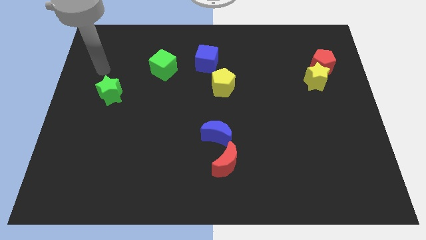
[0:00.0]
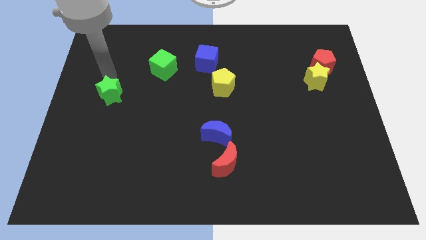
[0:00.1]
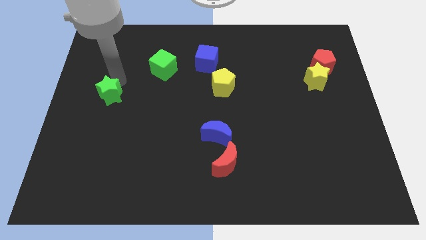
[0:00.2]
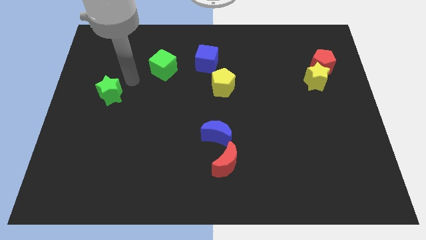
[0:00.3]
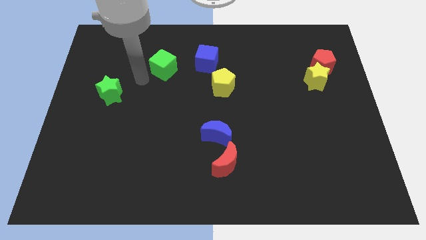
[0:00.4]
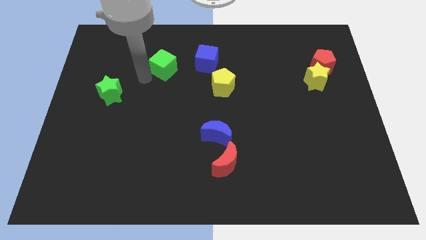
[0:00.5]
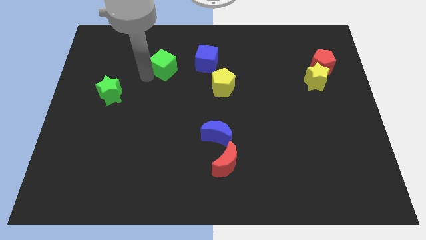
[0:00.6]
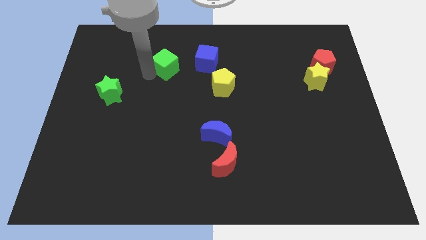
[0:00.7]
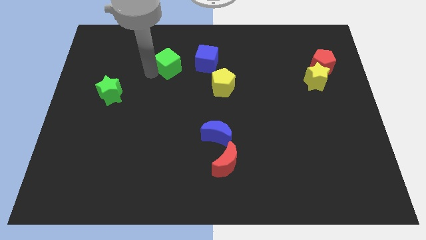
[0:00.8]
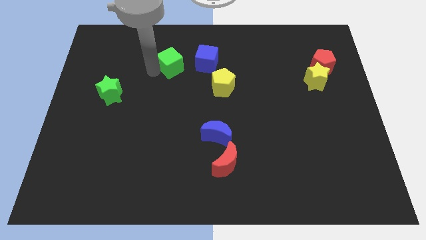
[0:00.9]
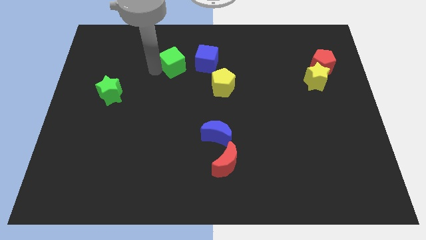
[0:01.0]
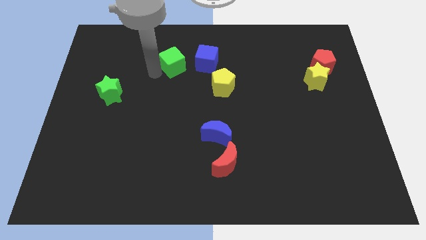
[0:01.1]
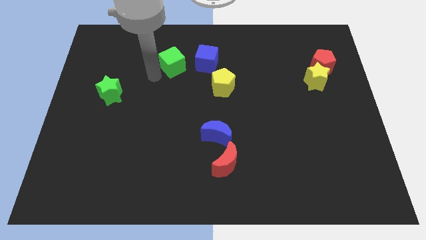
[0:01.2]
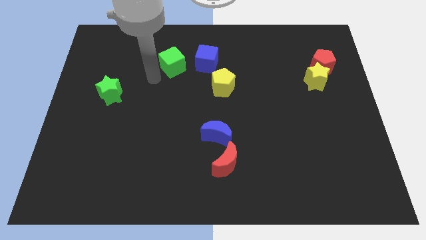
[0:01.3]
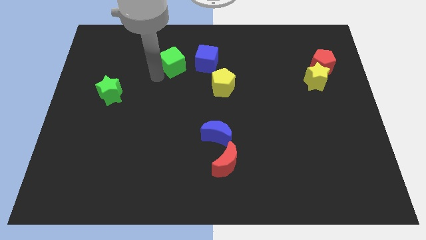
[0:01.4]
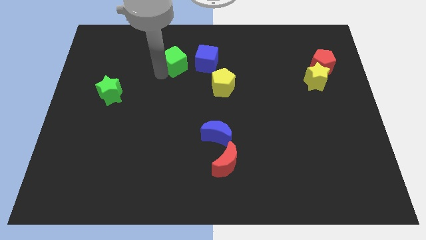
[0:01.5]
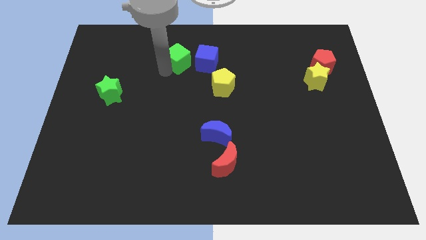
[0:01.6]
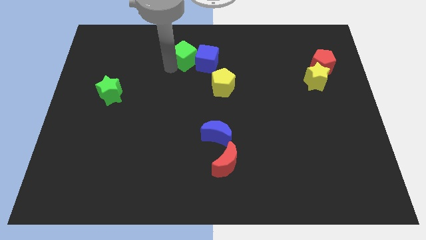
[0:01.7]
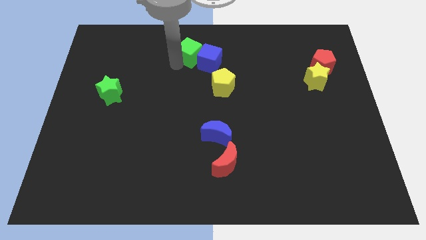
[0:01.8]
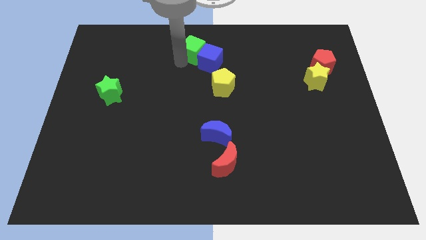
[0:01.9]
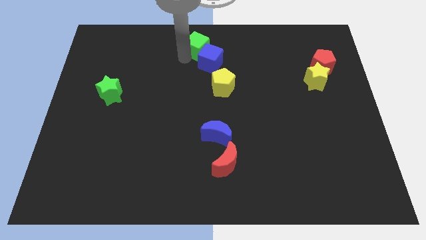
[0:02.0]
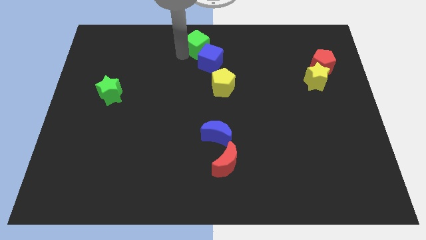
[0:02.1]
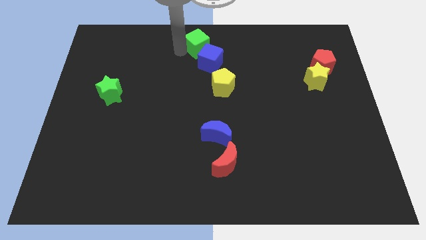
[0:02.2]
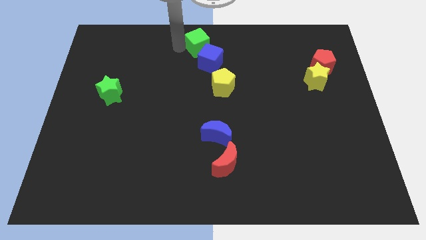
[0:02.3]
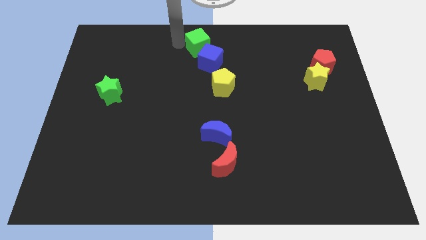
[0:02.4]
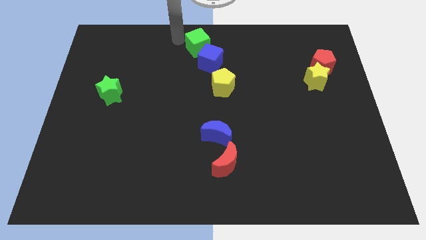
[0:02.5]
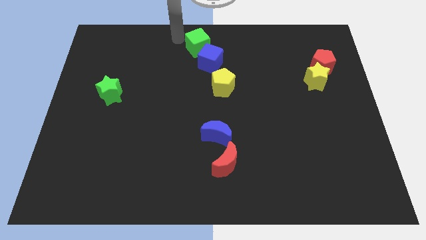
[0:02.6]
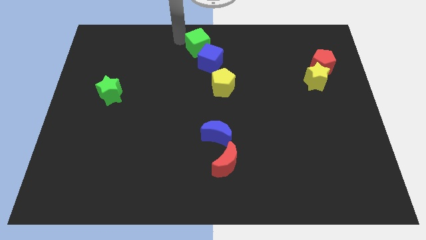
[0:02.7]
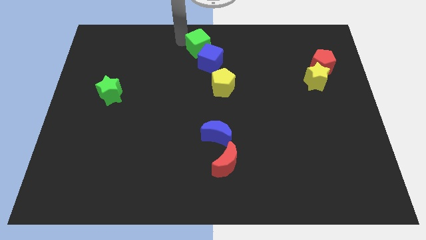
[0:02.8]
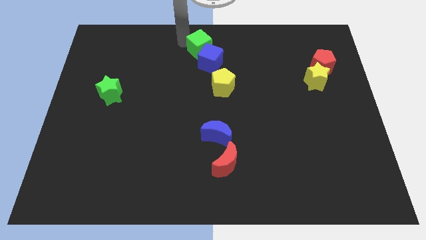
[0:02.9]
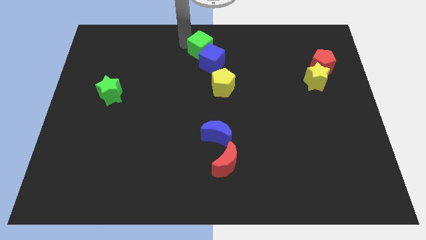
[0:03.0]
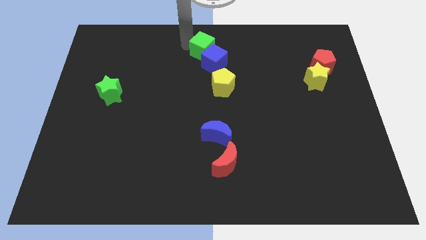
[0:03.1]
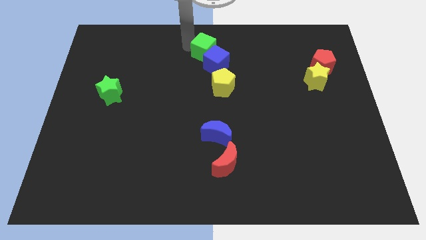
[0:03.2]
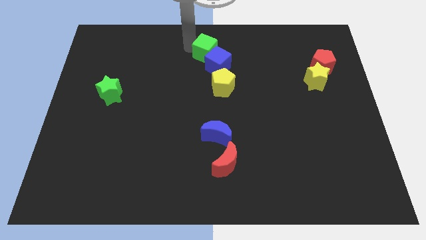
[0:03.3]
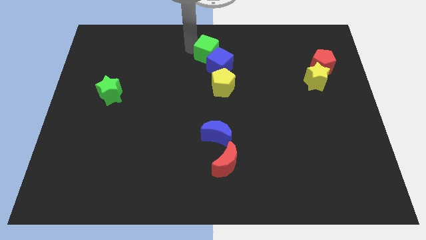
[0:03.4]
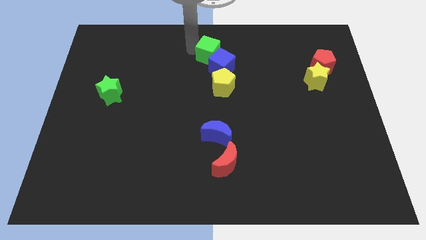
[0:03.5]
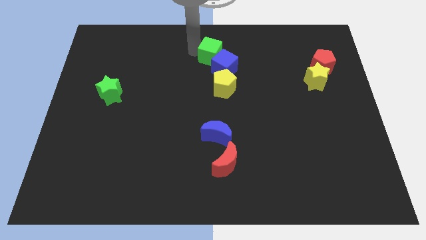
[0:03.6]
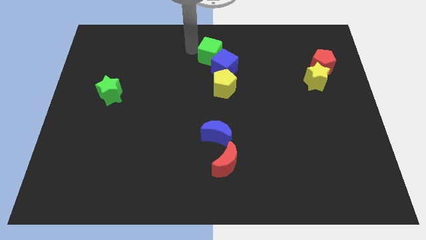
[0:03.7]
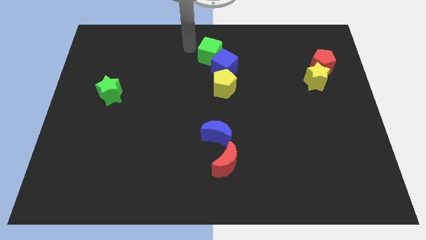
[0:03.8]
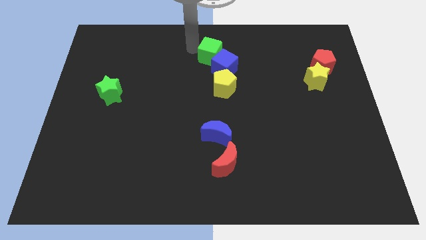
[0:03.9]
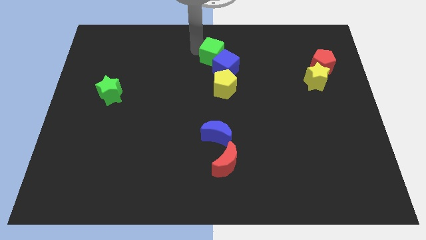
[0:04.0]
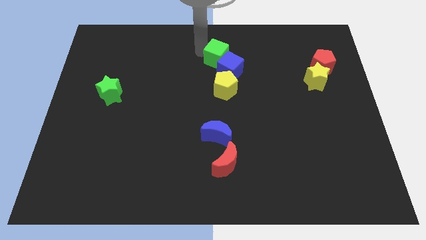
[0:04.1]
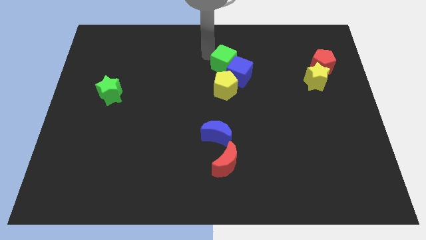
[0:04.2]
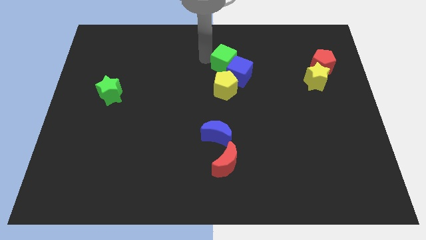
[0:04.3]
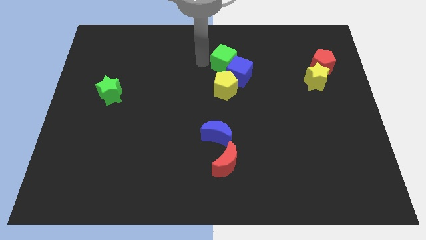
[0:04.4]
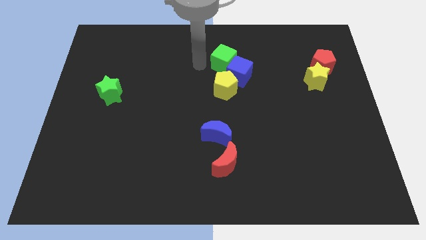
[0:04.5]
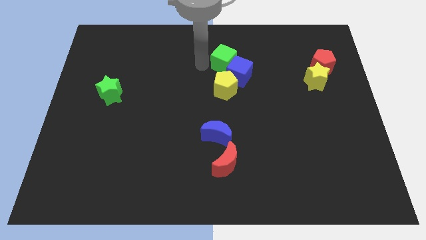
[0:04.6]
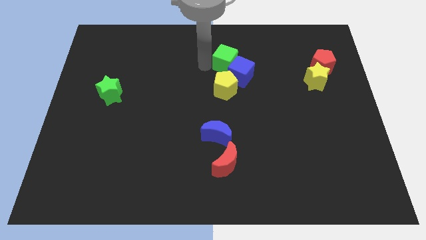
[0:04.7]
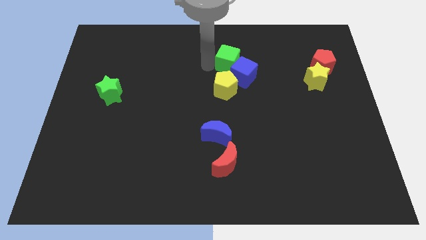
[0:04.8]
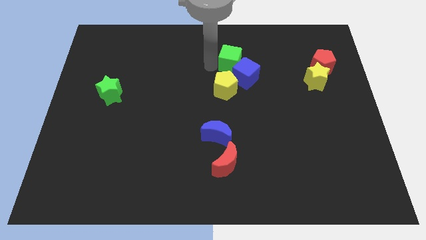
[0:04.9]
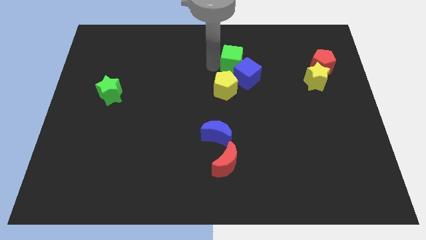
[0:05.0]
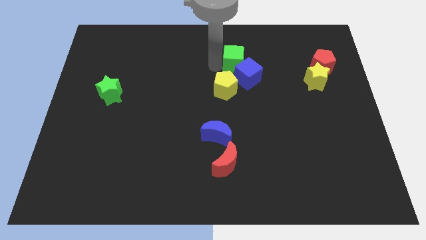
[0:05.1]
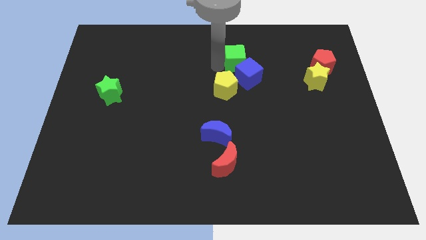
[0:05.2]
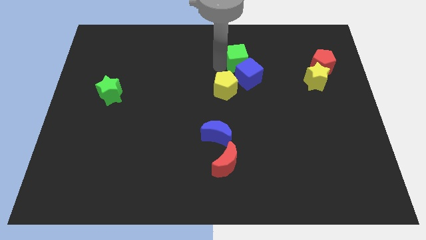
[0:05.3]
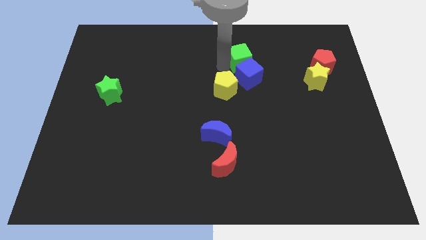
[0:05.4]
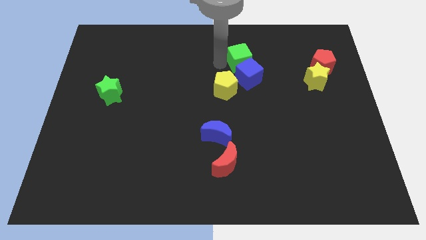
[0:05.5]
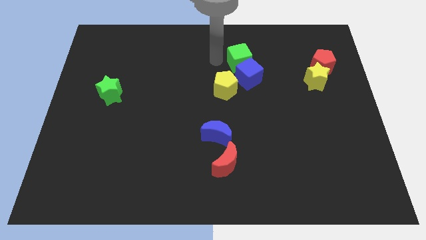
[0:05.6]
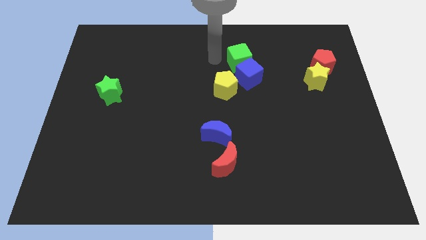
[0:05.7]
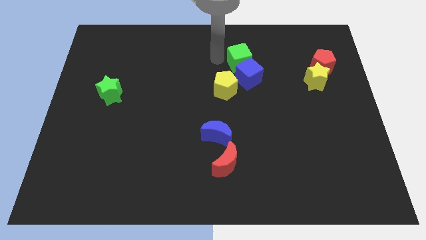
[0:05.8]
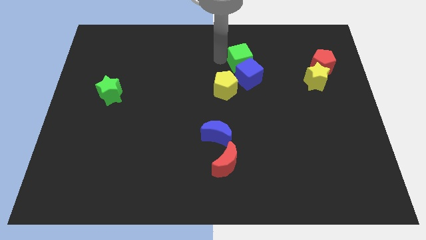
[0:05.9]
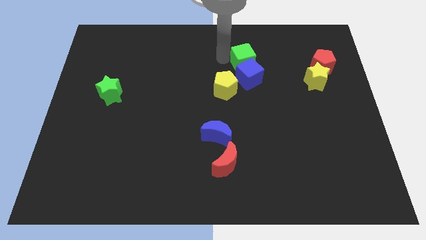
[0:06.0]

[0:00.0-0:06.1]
slide the green cube to the right

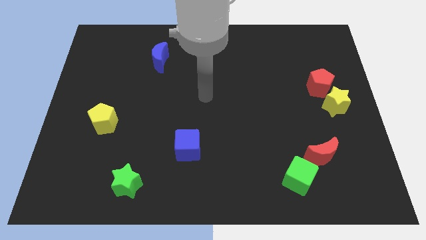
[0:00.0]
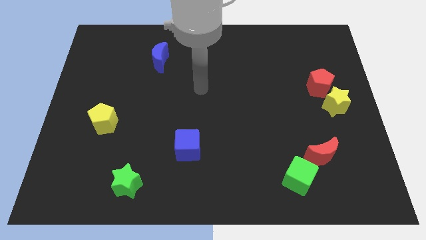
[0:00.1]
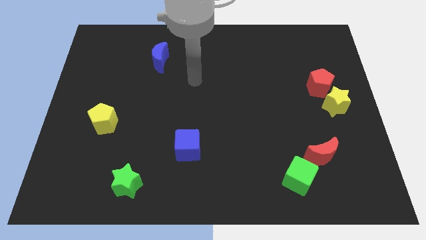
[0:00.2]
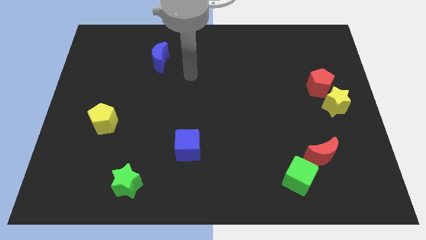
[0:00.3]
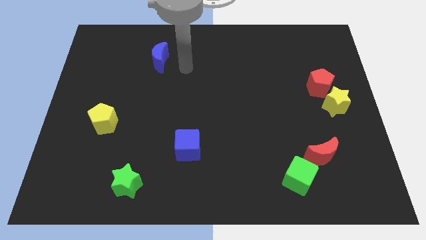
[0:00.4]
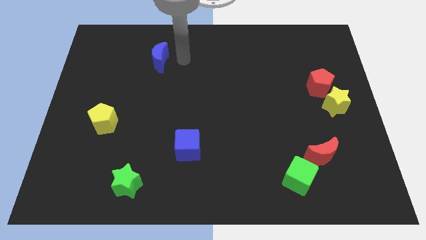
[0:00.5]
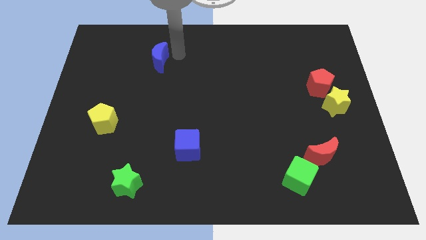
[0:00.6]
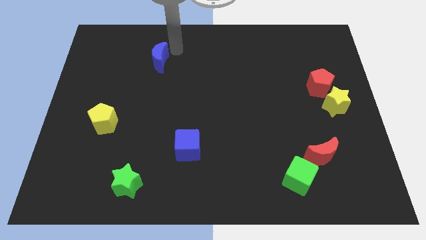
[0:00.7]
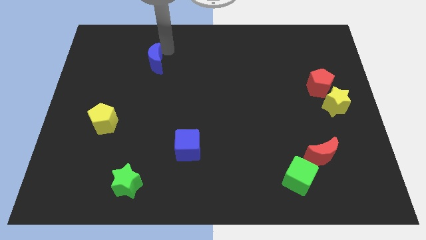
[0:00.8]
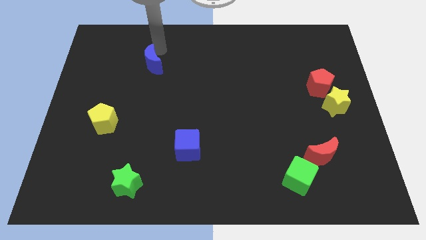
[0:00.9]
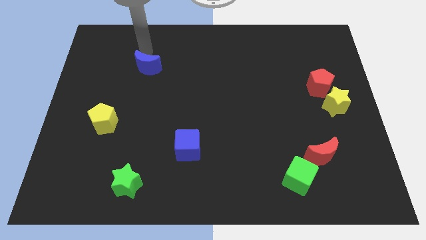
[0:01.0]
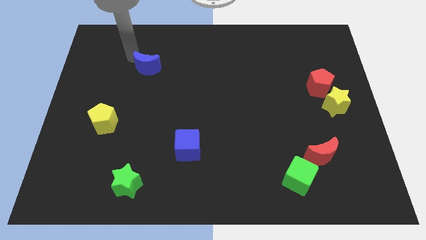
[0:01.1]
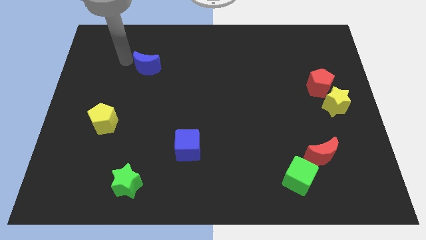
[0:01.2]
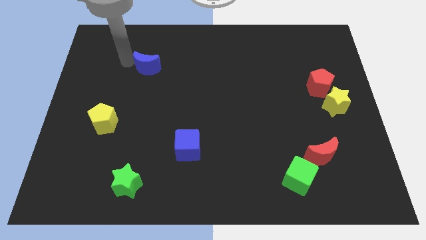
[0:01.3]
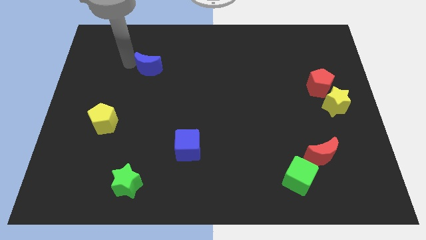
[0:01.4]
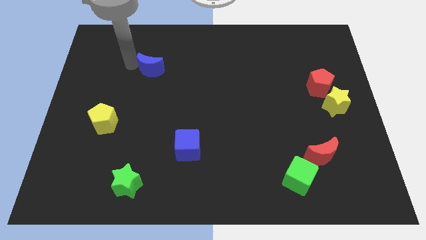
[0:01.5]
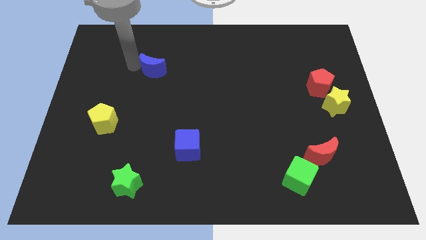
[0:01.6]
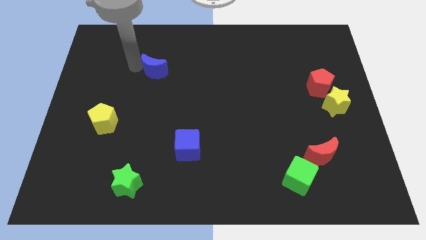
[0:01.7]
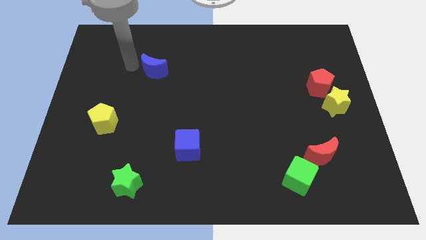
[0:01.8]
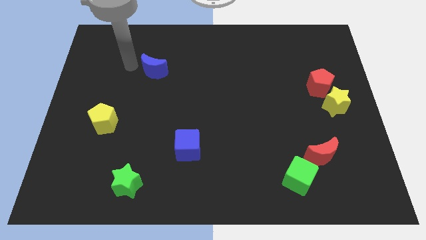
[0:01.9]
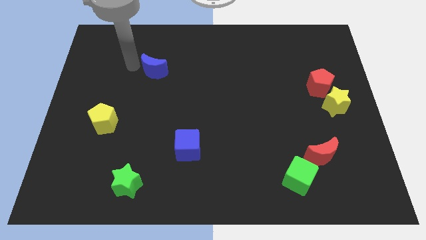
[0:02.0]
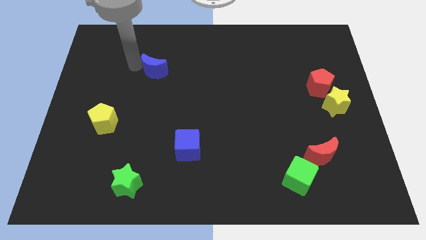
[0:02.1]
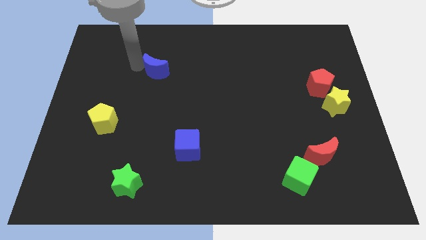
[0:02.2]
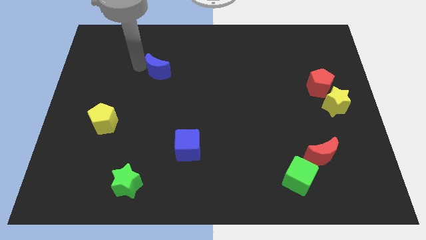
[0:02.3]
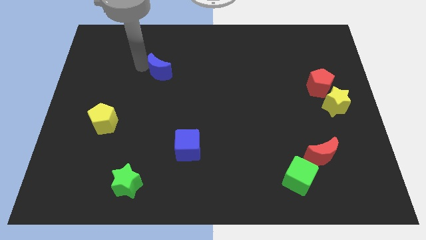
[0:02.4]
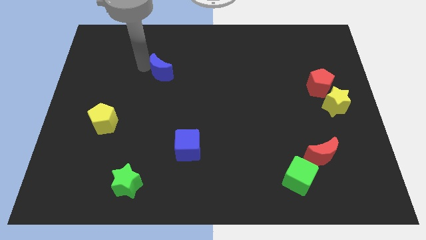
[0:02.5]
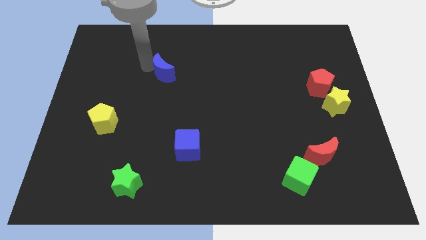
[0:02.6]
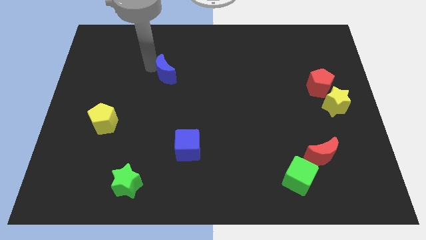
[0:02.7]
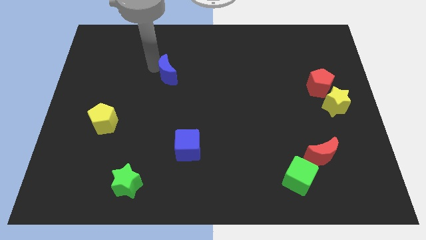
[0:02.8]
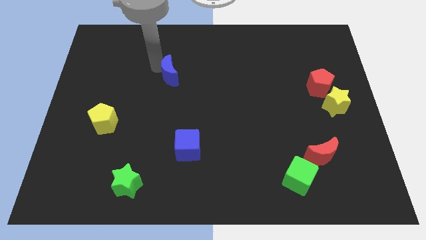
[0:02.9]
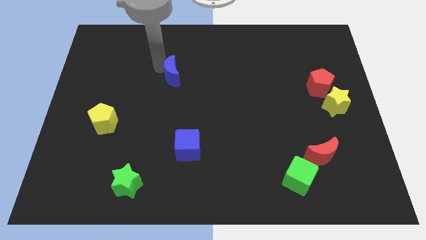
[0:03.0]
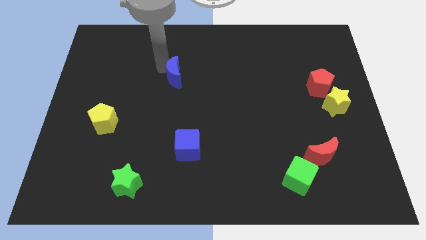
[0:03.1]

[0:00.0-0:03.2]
move the blue moon slightly diagonally down and to the right
